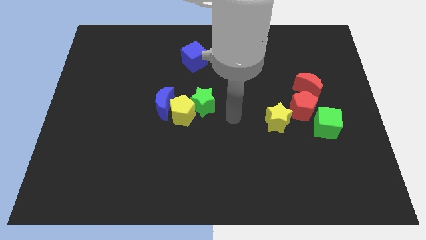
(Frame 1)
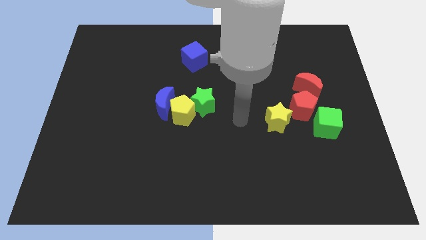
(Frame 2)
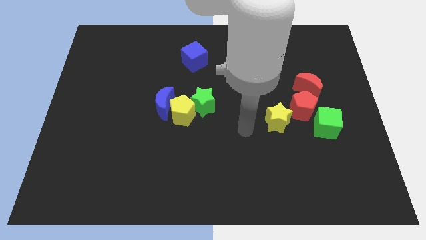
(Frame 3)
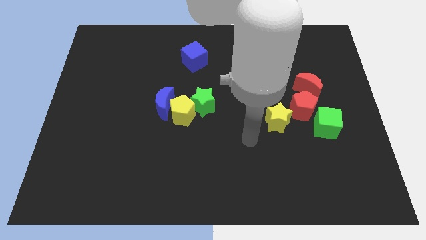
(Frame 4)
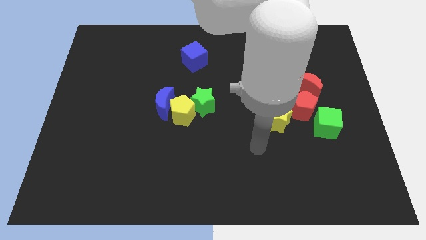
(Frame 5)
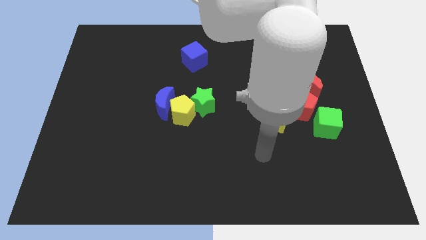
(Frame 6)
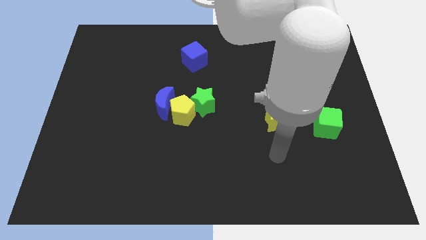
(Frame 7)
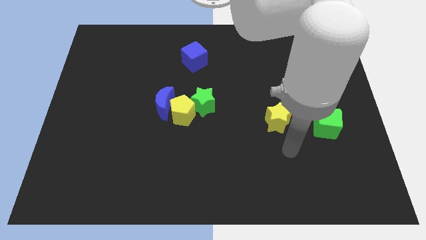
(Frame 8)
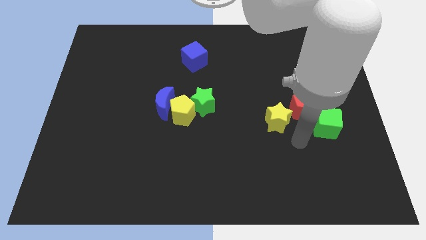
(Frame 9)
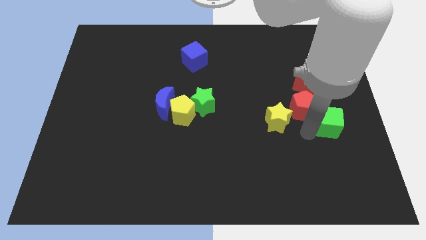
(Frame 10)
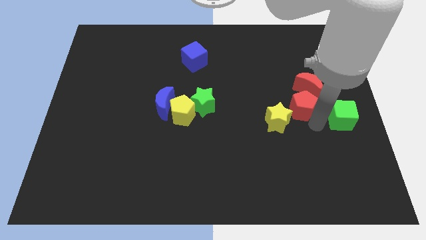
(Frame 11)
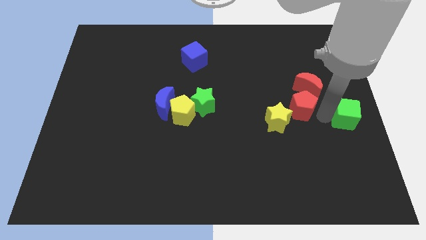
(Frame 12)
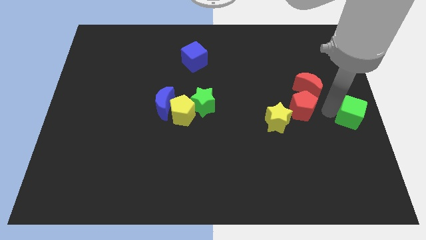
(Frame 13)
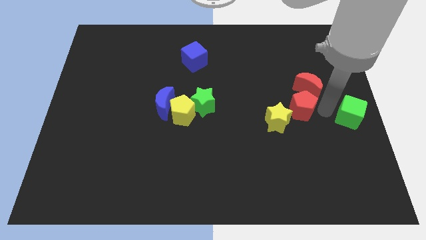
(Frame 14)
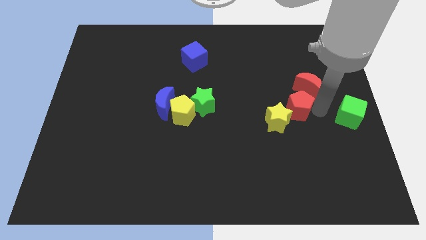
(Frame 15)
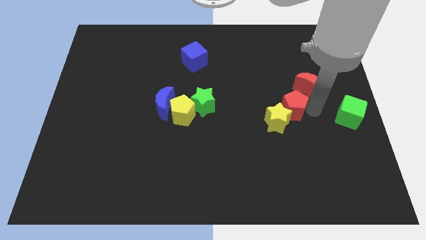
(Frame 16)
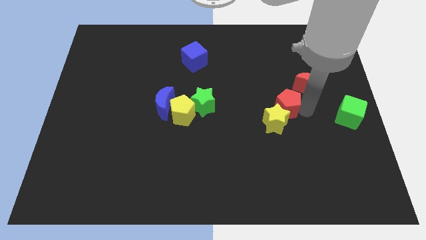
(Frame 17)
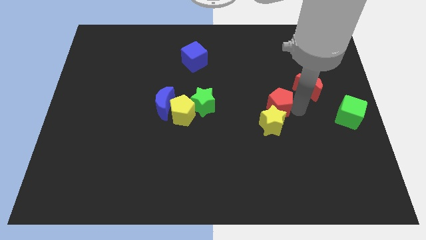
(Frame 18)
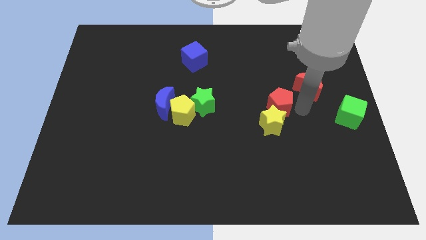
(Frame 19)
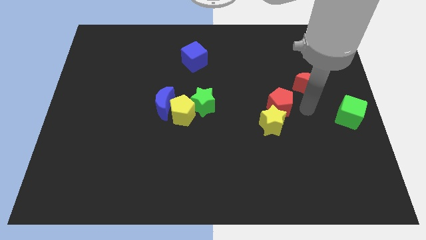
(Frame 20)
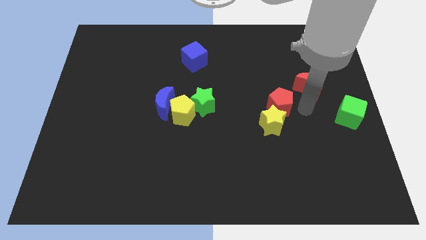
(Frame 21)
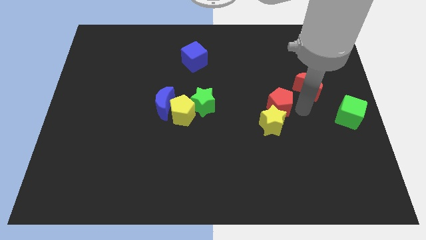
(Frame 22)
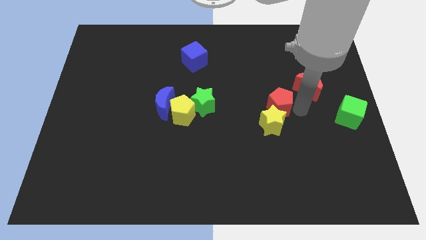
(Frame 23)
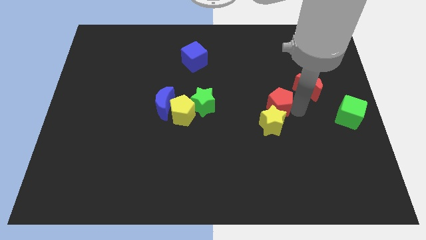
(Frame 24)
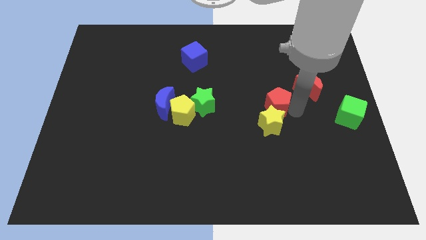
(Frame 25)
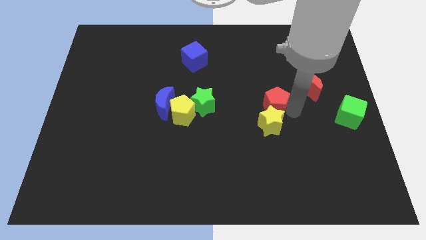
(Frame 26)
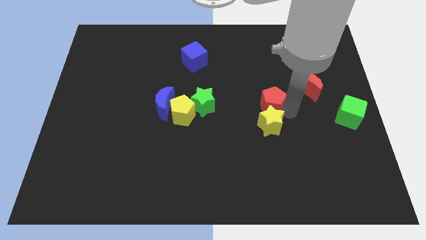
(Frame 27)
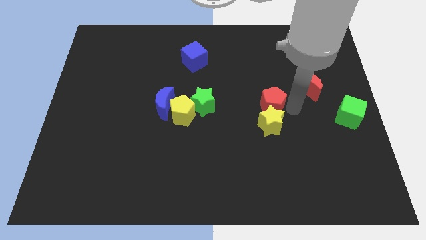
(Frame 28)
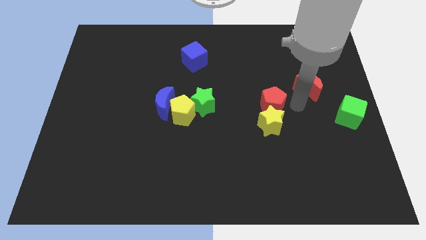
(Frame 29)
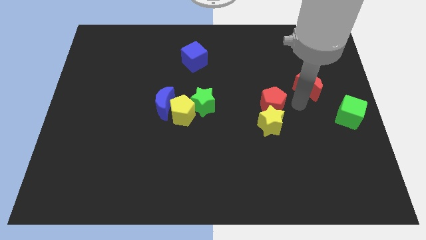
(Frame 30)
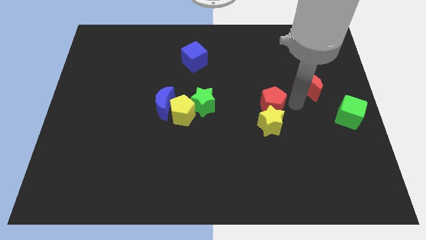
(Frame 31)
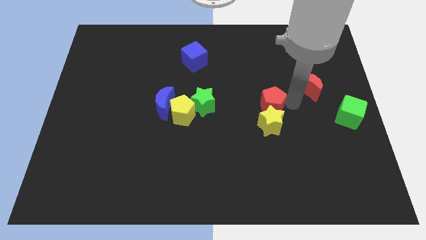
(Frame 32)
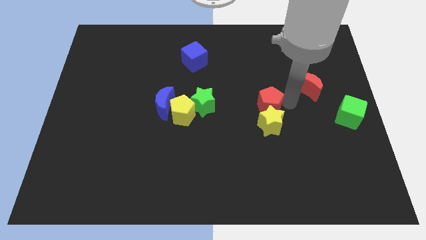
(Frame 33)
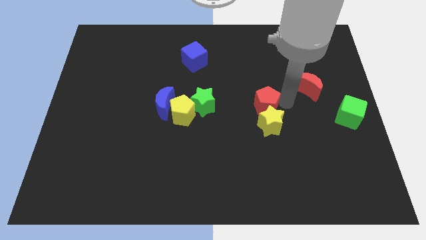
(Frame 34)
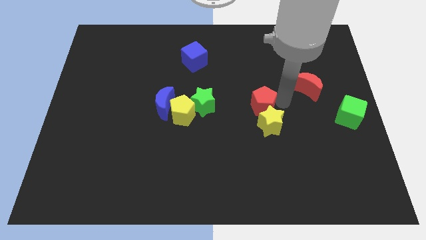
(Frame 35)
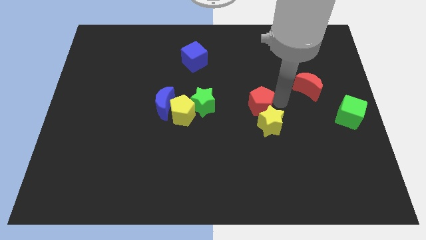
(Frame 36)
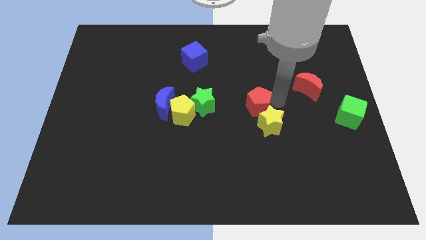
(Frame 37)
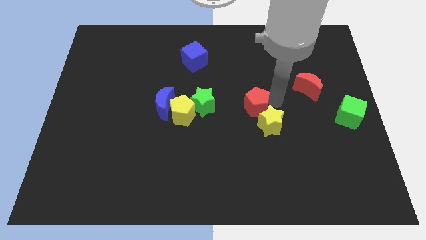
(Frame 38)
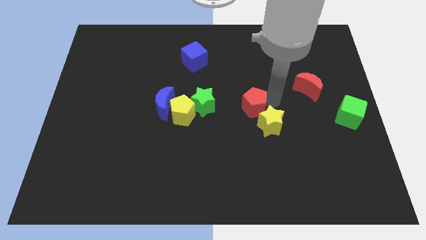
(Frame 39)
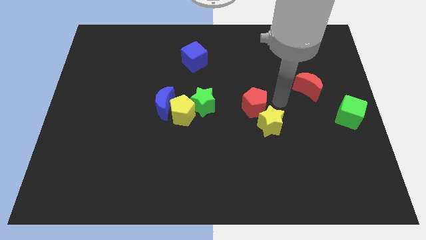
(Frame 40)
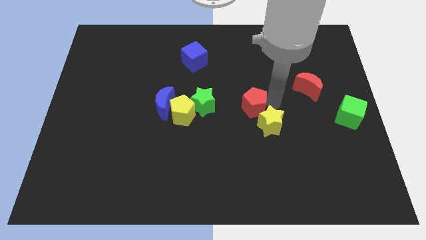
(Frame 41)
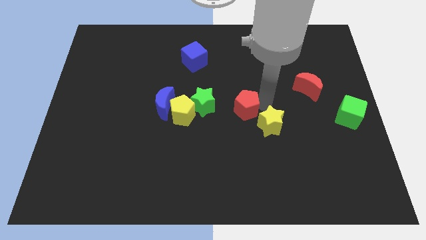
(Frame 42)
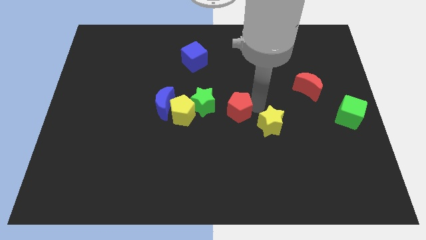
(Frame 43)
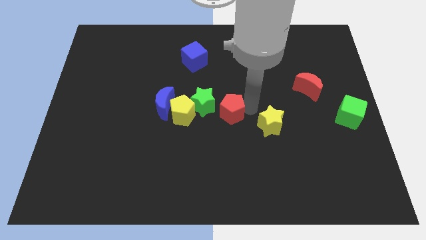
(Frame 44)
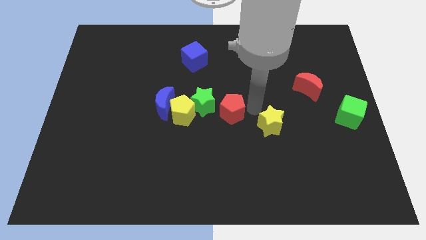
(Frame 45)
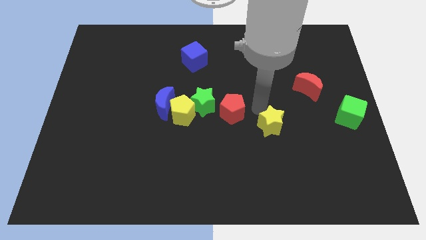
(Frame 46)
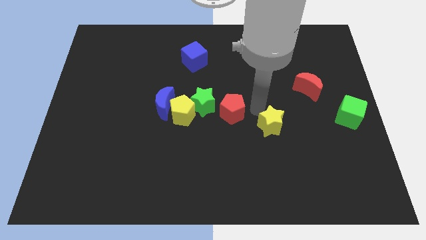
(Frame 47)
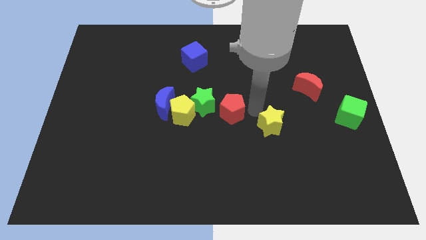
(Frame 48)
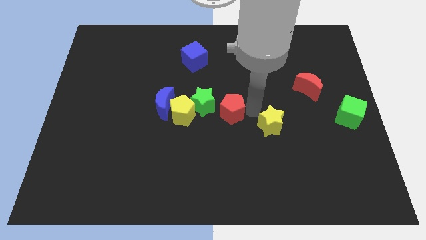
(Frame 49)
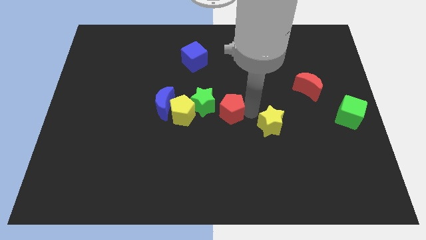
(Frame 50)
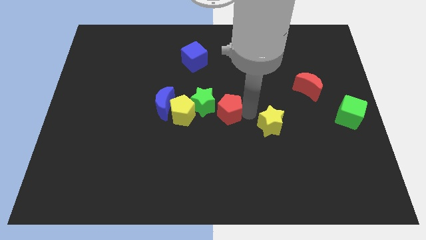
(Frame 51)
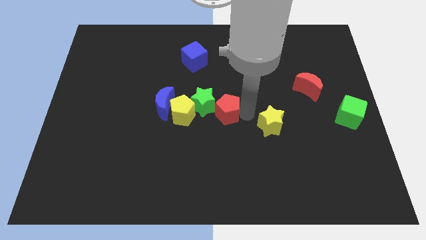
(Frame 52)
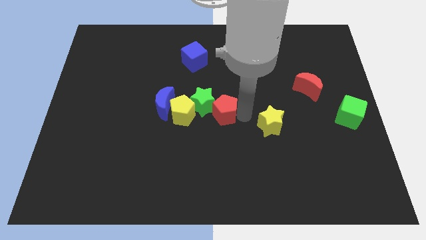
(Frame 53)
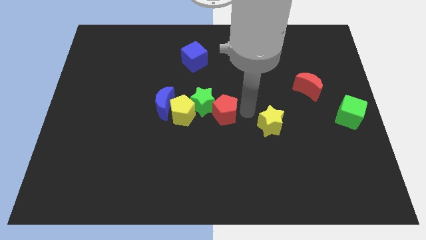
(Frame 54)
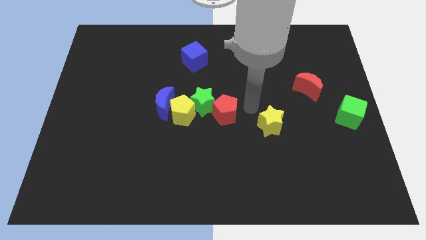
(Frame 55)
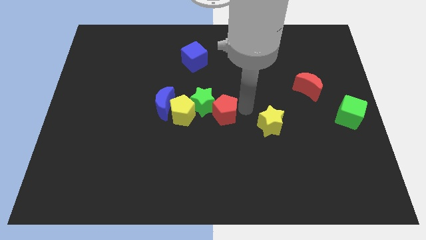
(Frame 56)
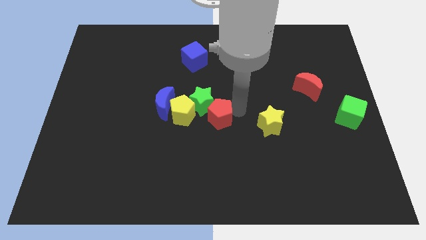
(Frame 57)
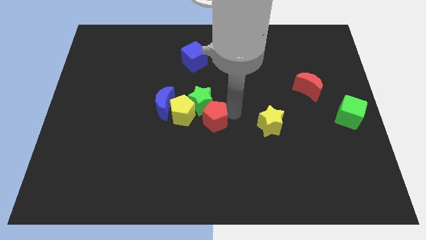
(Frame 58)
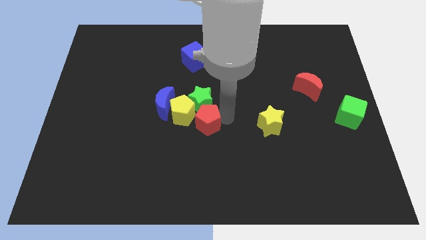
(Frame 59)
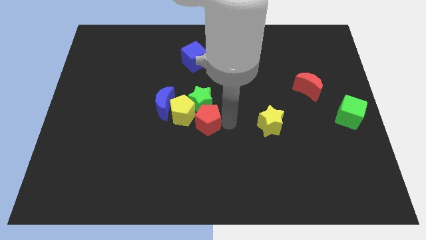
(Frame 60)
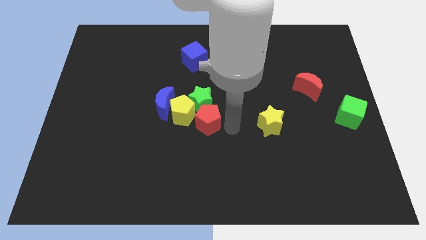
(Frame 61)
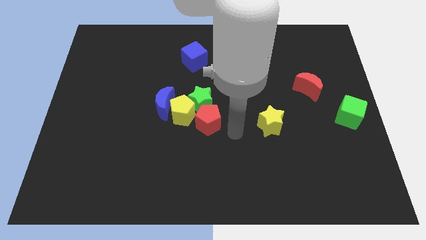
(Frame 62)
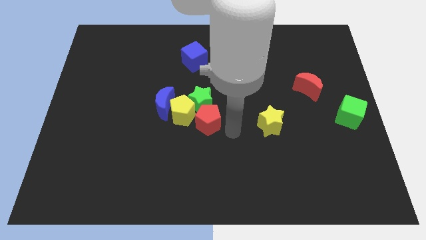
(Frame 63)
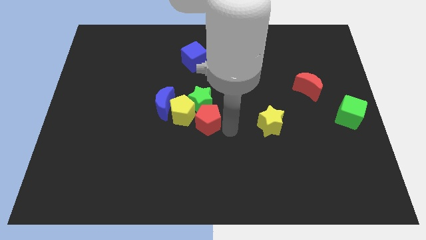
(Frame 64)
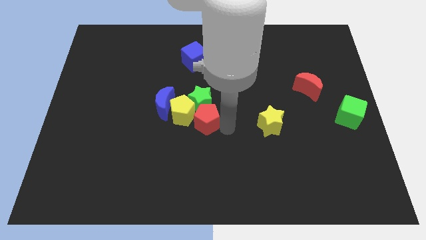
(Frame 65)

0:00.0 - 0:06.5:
move the red pentagon close to the yellow pentagon
